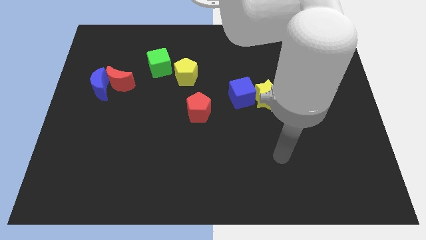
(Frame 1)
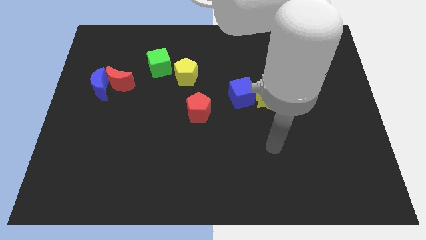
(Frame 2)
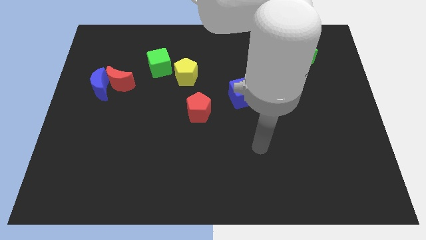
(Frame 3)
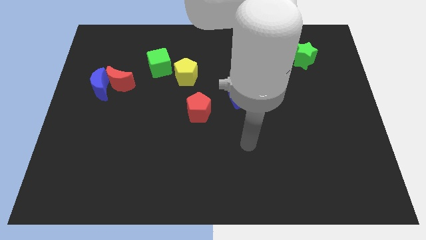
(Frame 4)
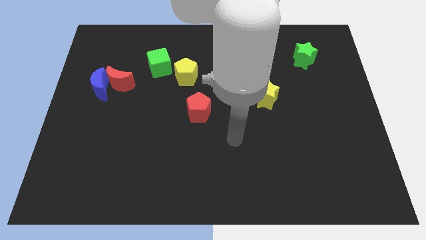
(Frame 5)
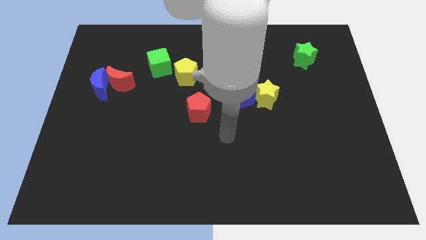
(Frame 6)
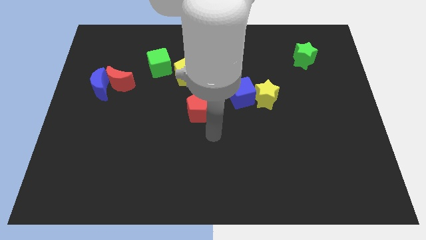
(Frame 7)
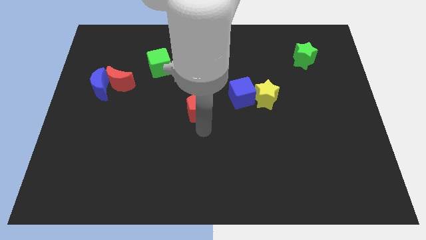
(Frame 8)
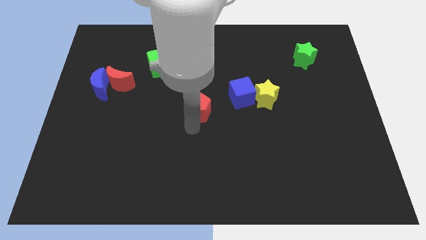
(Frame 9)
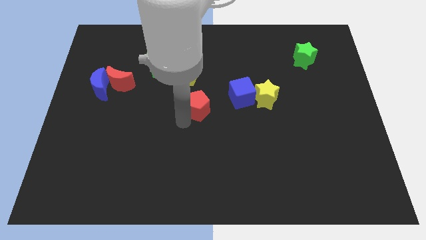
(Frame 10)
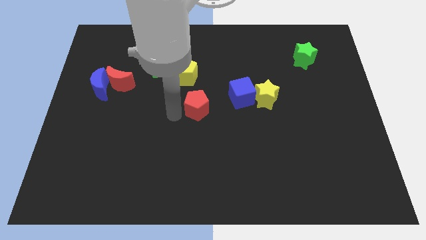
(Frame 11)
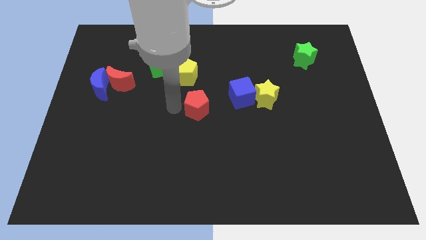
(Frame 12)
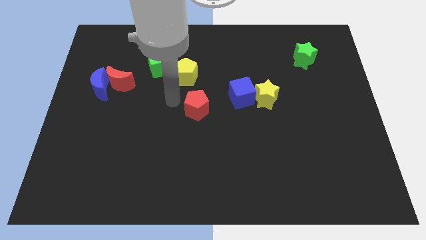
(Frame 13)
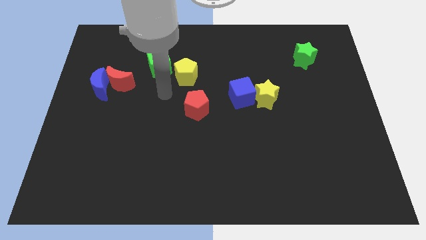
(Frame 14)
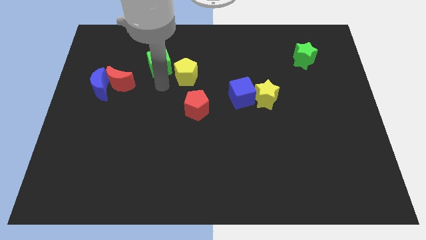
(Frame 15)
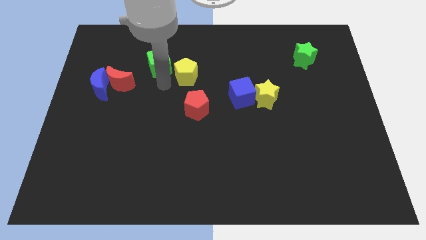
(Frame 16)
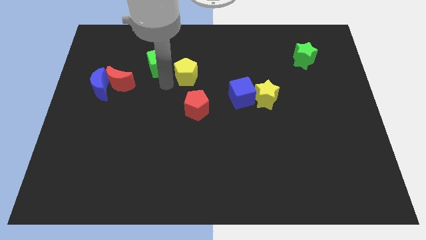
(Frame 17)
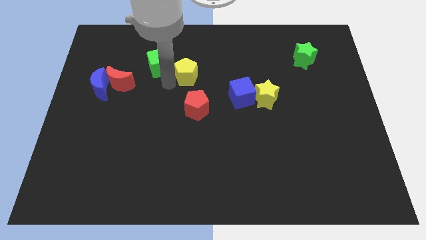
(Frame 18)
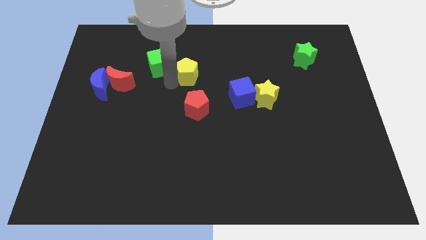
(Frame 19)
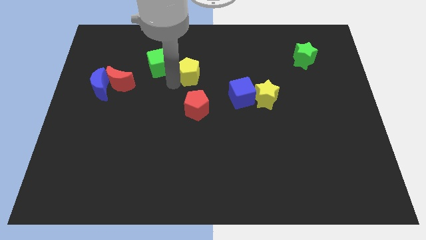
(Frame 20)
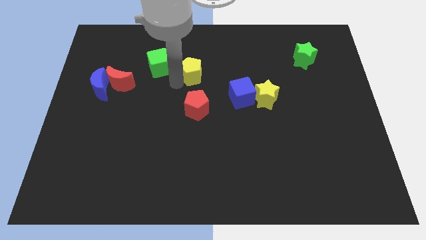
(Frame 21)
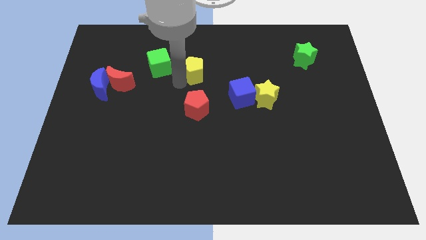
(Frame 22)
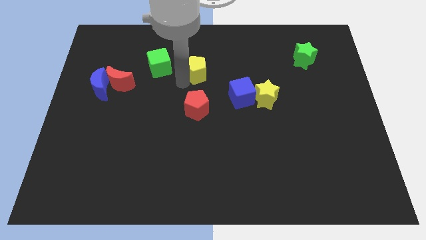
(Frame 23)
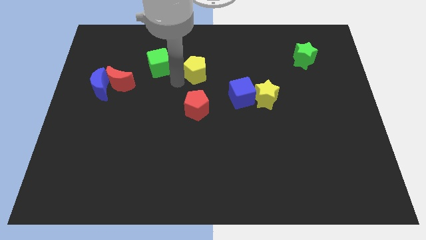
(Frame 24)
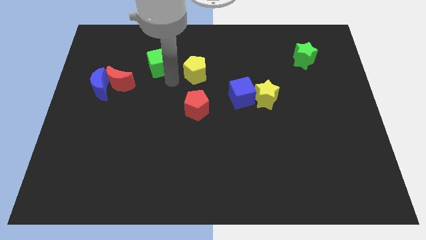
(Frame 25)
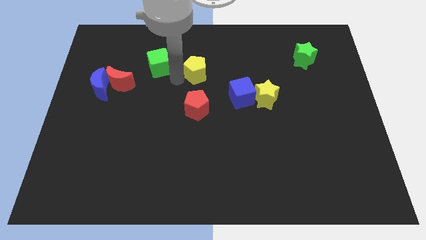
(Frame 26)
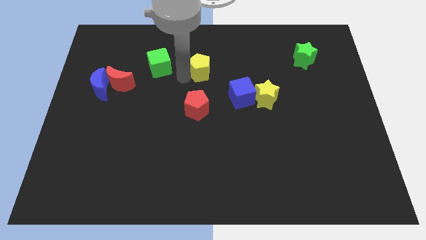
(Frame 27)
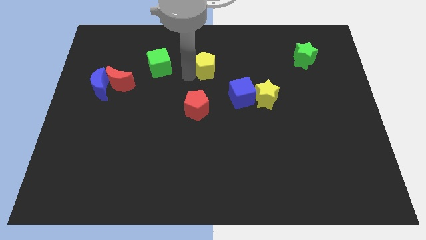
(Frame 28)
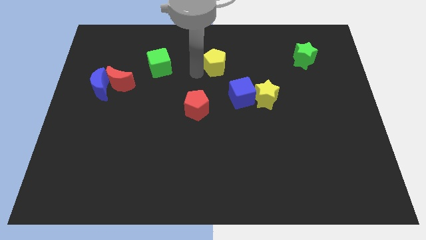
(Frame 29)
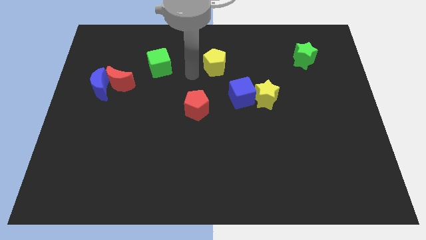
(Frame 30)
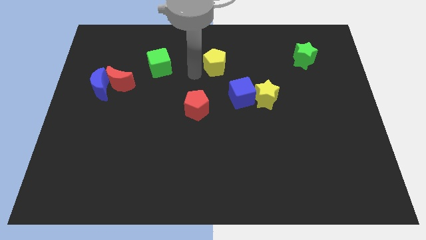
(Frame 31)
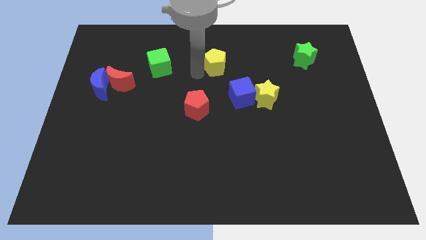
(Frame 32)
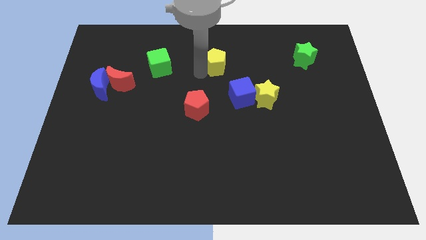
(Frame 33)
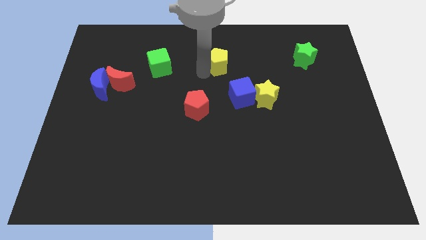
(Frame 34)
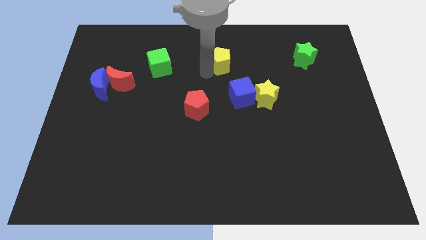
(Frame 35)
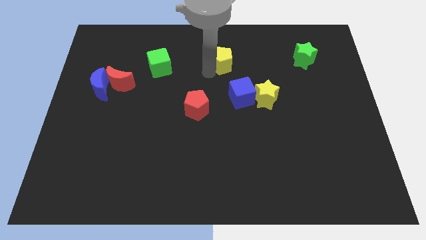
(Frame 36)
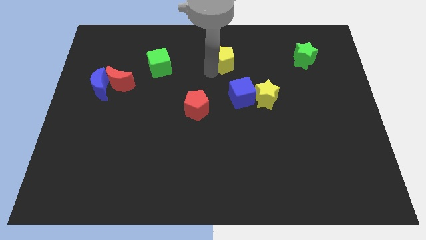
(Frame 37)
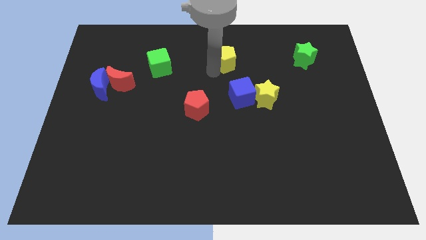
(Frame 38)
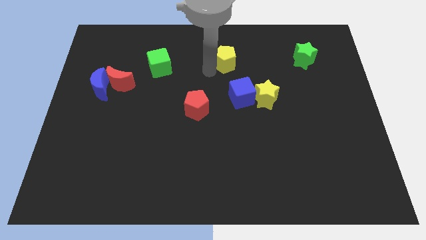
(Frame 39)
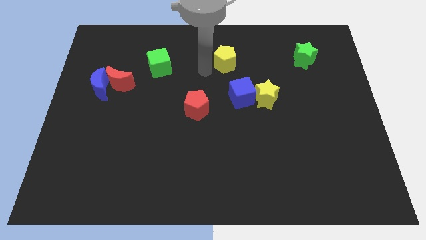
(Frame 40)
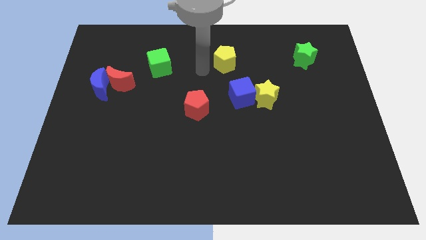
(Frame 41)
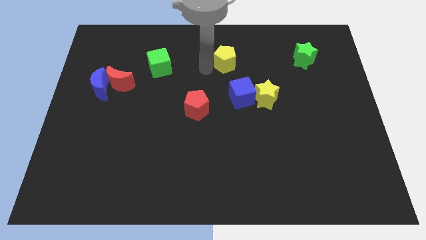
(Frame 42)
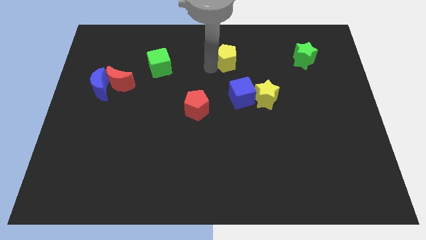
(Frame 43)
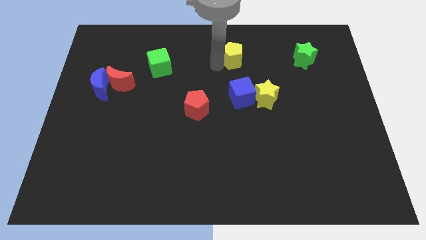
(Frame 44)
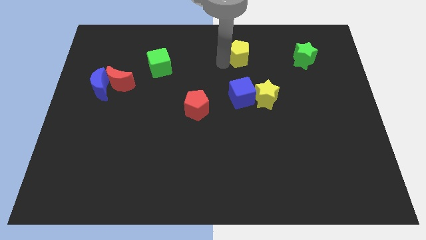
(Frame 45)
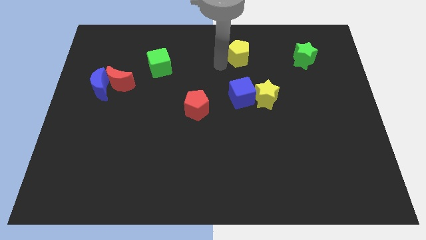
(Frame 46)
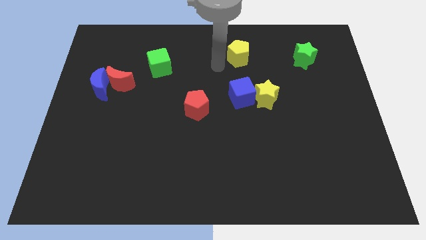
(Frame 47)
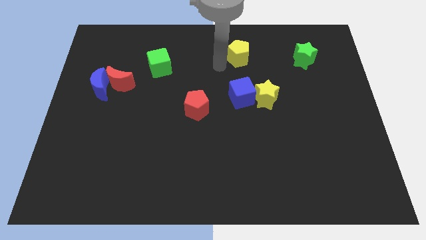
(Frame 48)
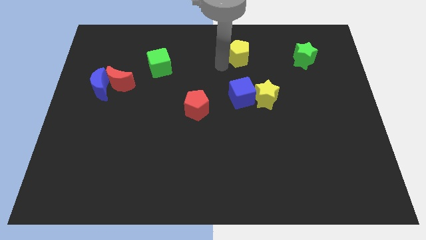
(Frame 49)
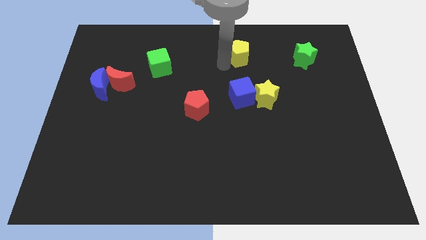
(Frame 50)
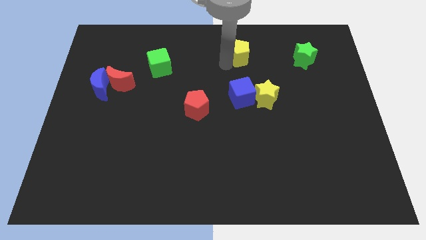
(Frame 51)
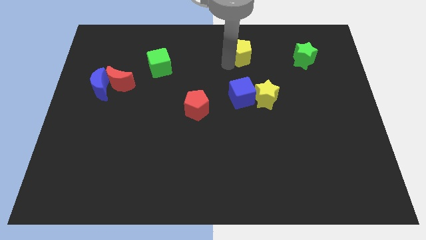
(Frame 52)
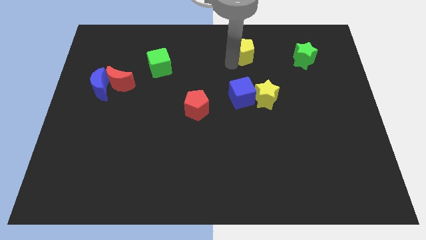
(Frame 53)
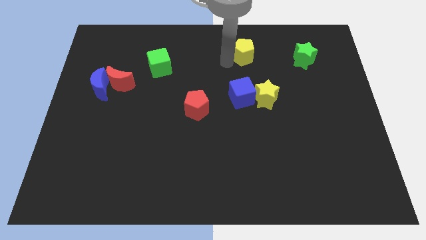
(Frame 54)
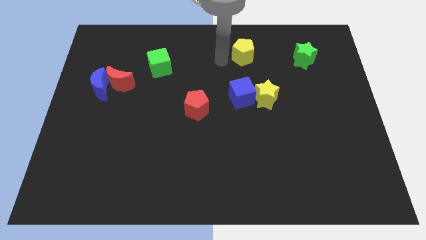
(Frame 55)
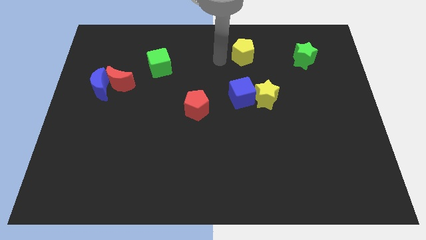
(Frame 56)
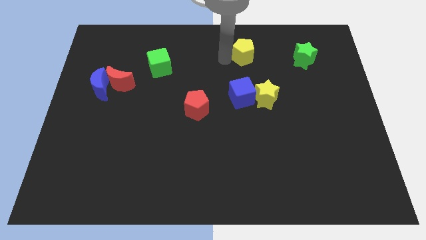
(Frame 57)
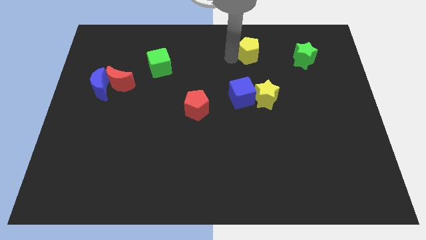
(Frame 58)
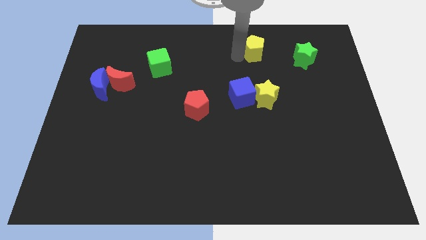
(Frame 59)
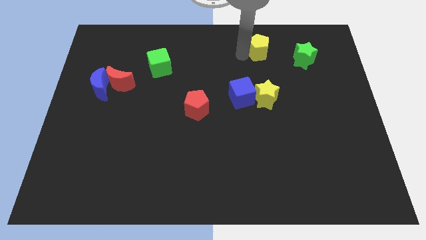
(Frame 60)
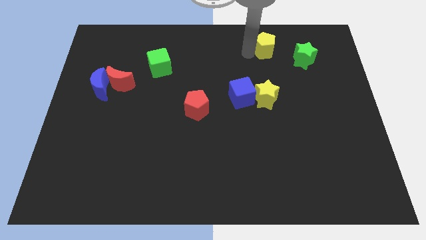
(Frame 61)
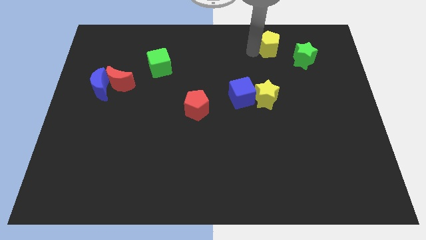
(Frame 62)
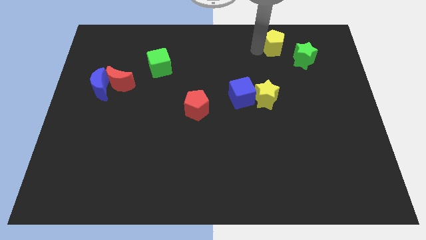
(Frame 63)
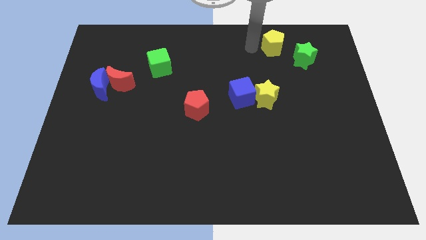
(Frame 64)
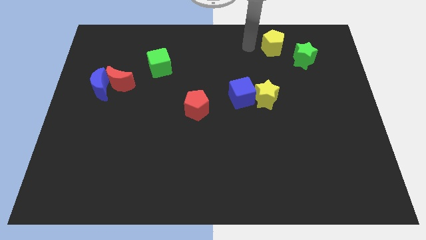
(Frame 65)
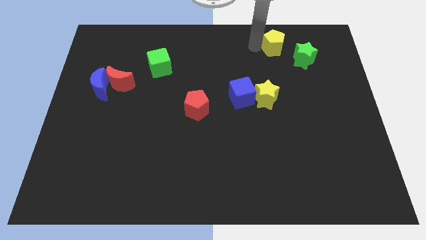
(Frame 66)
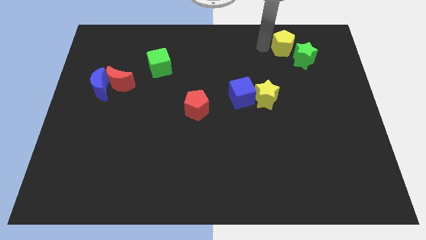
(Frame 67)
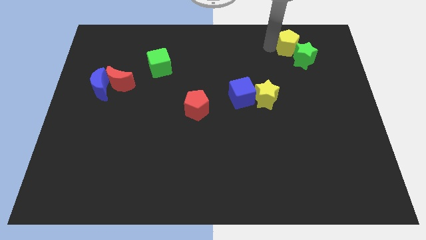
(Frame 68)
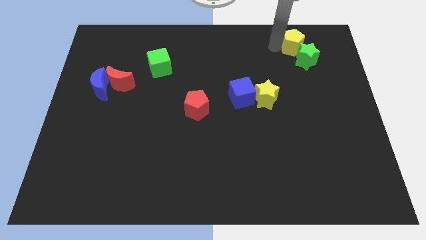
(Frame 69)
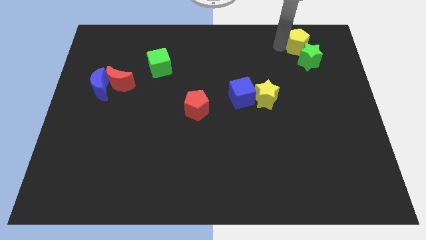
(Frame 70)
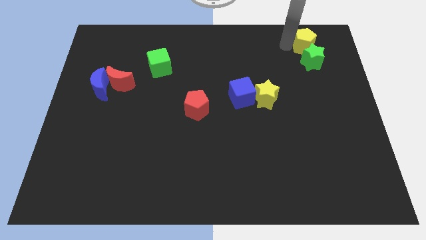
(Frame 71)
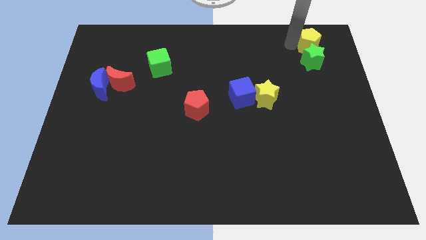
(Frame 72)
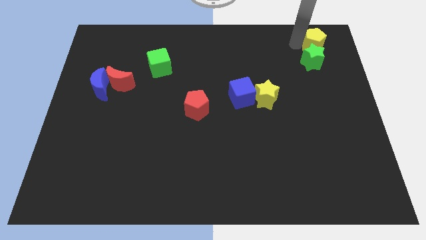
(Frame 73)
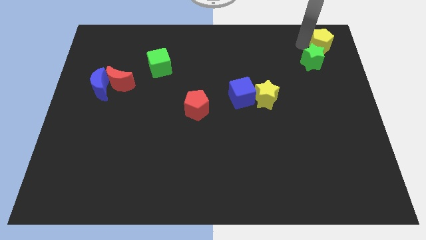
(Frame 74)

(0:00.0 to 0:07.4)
push the yellow pentagon to the top right
